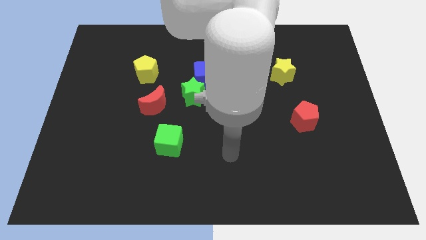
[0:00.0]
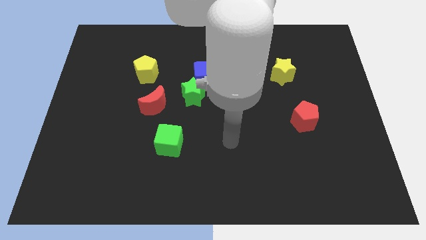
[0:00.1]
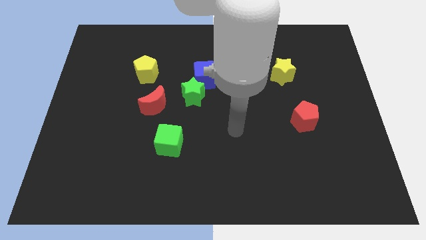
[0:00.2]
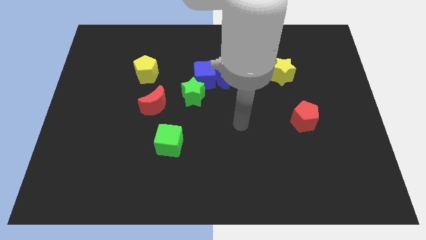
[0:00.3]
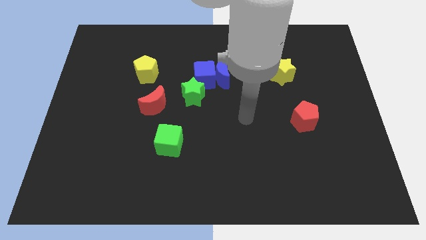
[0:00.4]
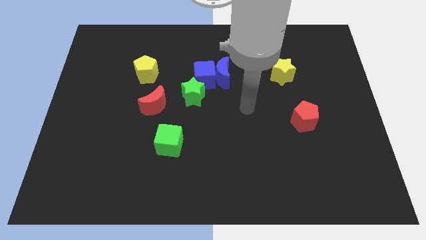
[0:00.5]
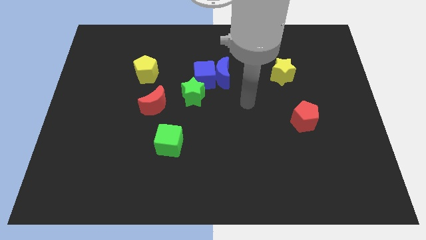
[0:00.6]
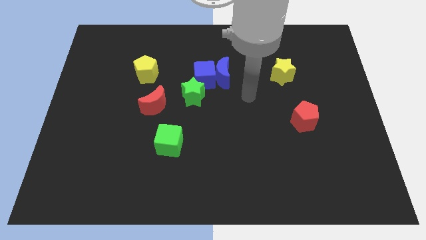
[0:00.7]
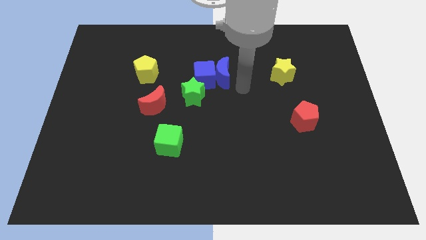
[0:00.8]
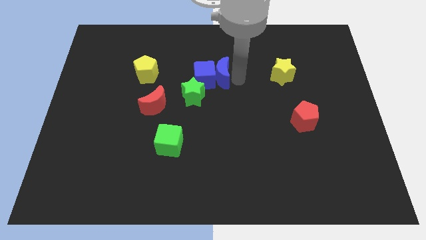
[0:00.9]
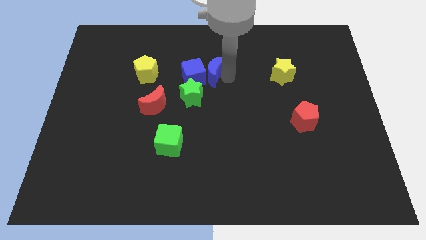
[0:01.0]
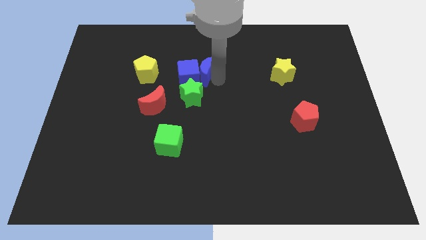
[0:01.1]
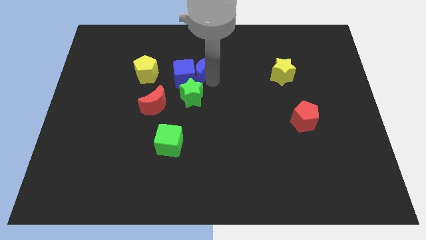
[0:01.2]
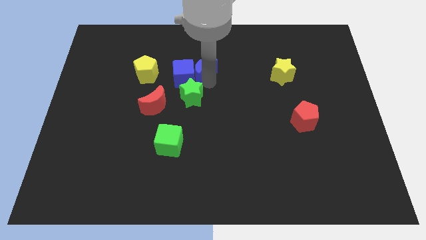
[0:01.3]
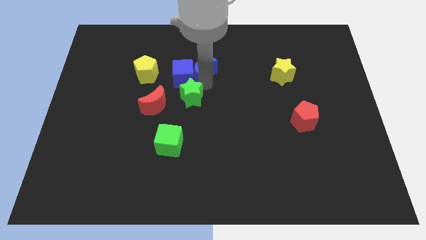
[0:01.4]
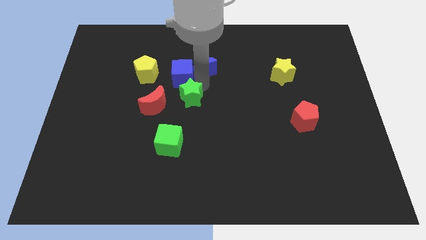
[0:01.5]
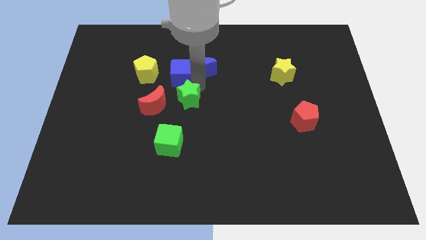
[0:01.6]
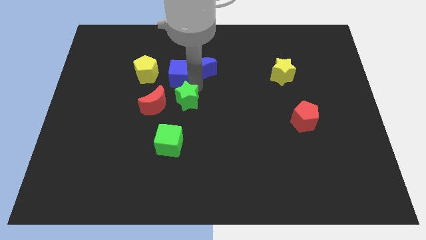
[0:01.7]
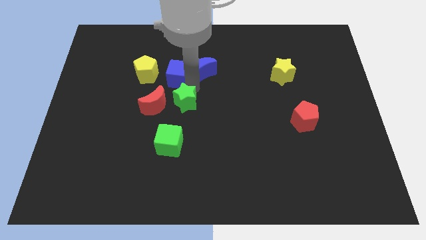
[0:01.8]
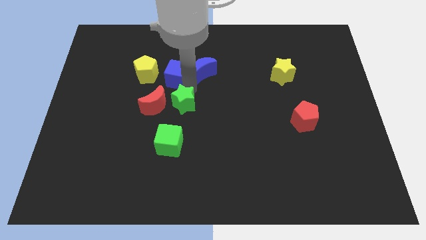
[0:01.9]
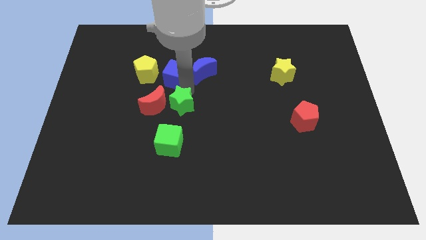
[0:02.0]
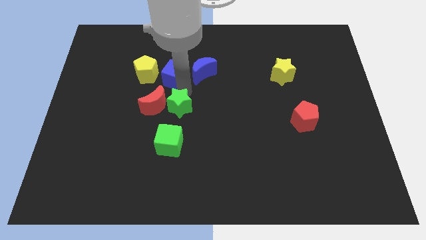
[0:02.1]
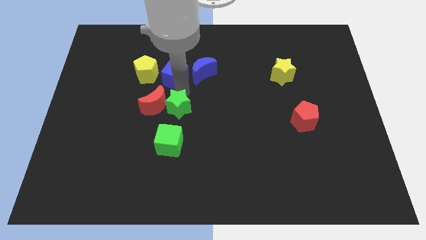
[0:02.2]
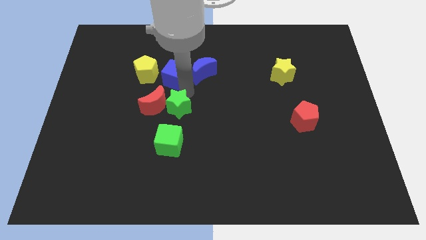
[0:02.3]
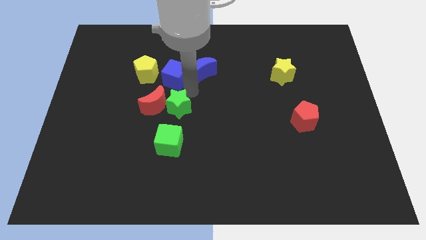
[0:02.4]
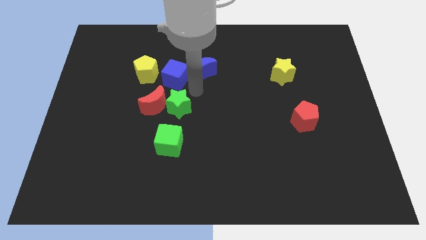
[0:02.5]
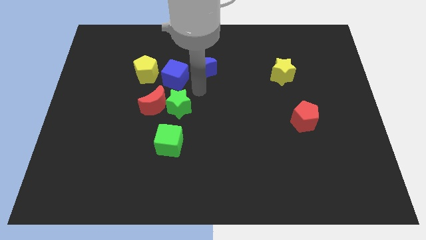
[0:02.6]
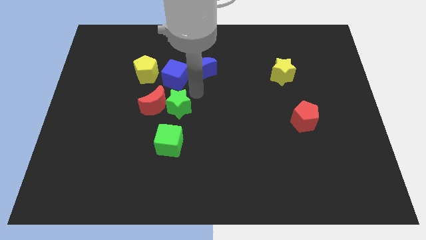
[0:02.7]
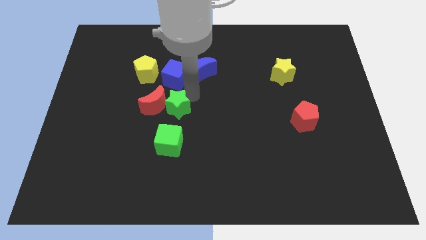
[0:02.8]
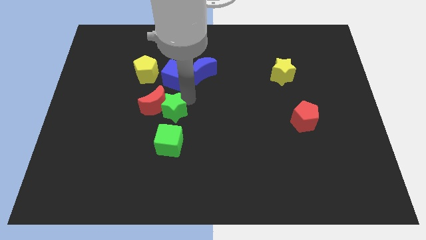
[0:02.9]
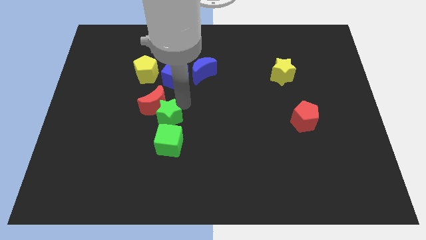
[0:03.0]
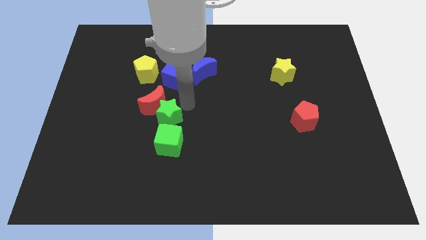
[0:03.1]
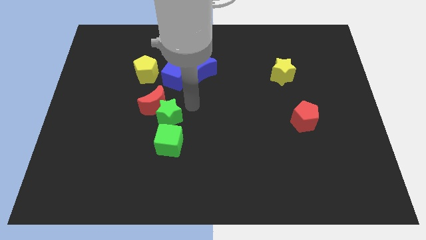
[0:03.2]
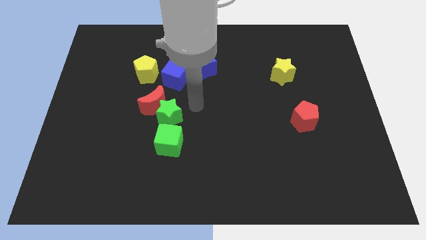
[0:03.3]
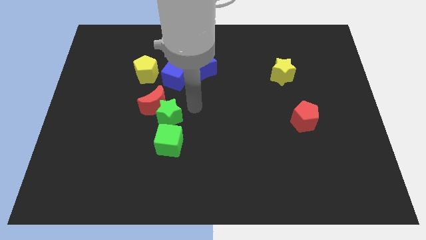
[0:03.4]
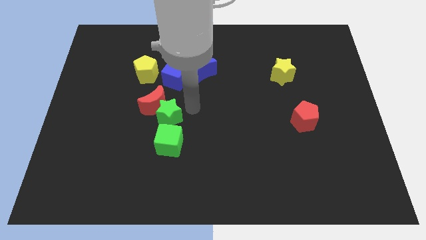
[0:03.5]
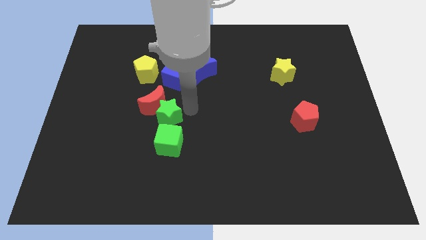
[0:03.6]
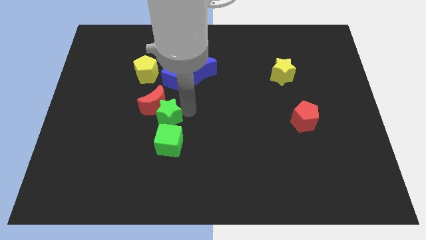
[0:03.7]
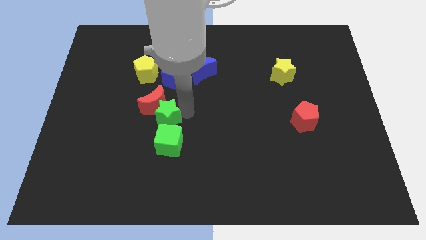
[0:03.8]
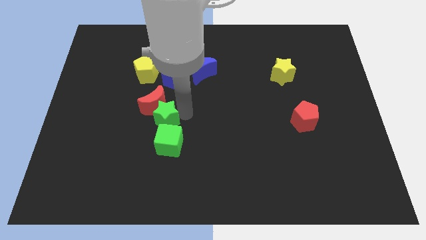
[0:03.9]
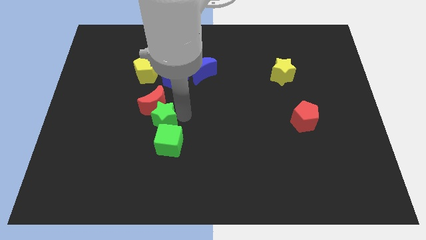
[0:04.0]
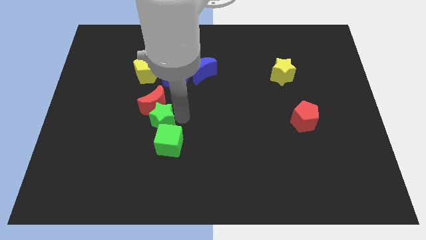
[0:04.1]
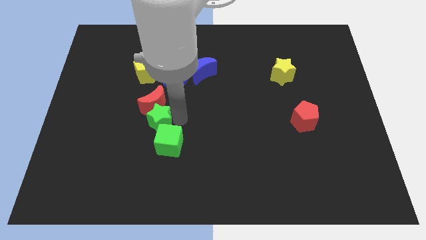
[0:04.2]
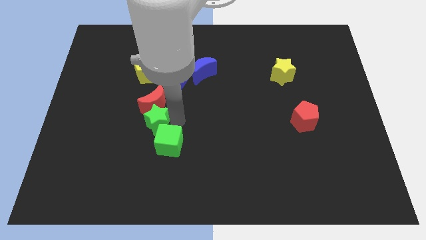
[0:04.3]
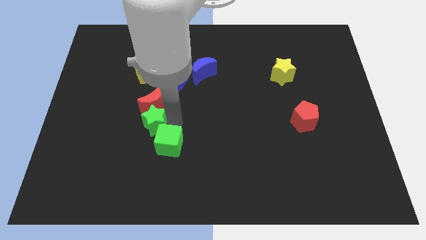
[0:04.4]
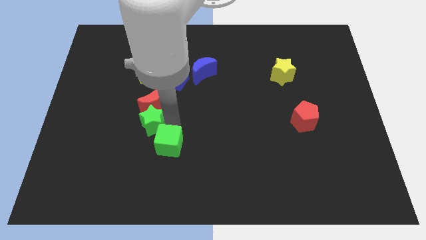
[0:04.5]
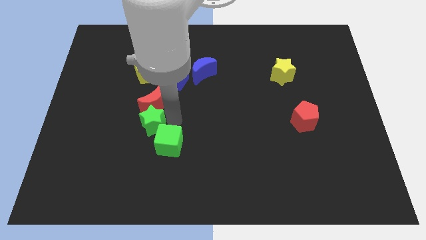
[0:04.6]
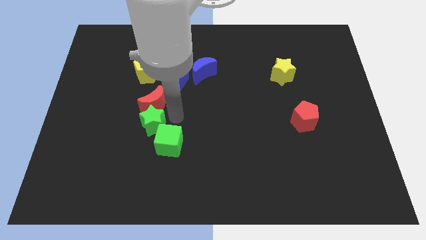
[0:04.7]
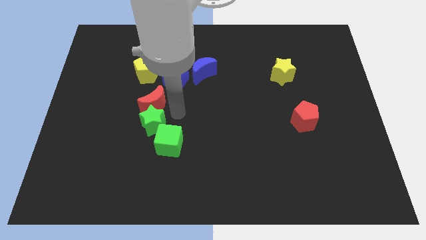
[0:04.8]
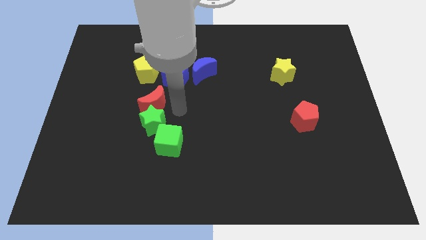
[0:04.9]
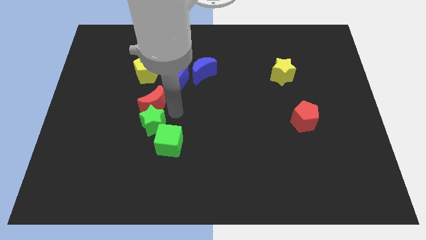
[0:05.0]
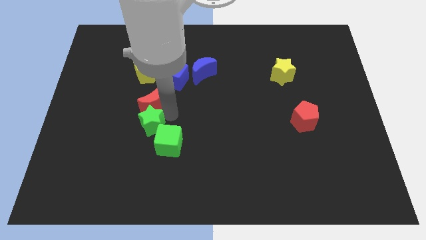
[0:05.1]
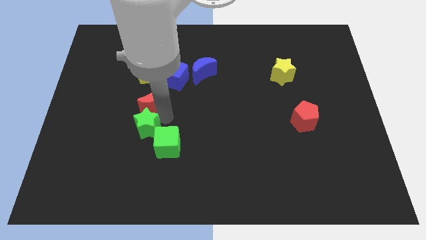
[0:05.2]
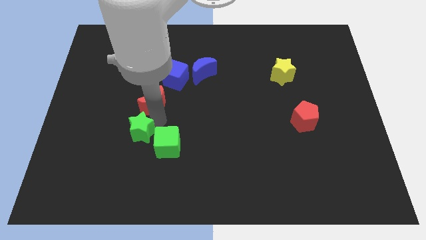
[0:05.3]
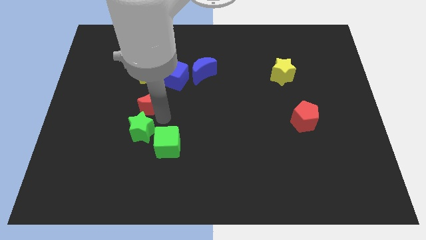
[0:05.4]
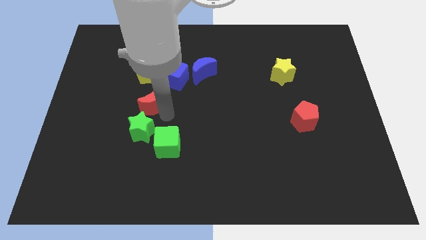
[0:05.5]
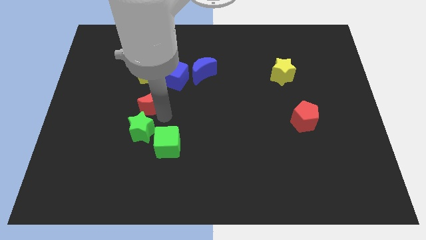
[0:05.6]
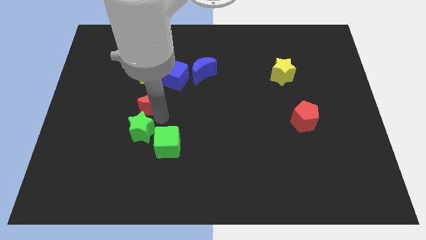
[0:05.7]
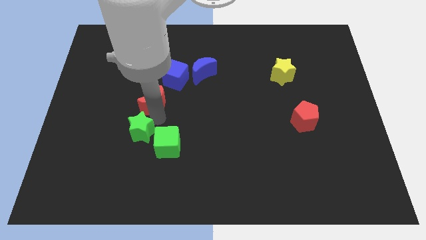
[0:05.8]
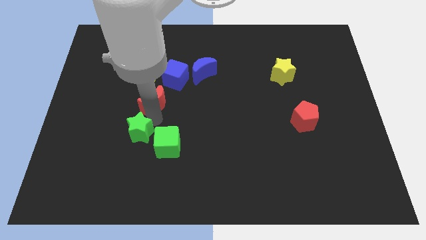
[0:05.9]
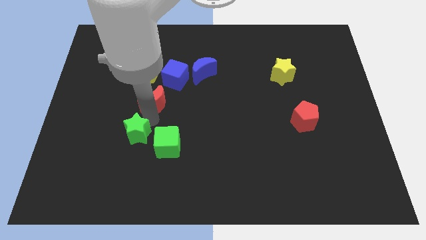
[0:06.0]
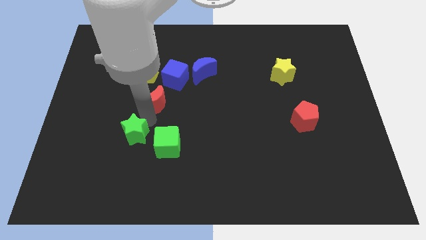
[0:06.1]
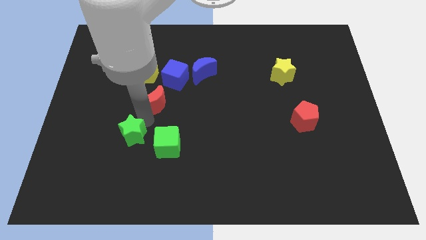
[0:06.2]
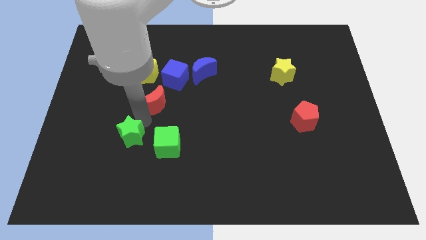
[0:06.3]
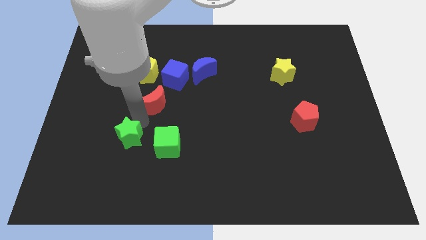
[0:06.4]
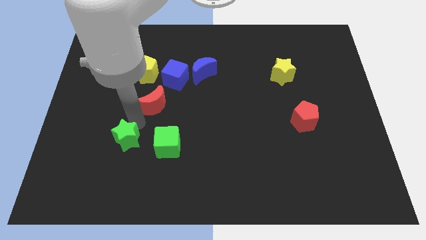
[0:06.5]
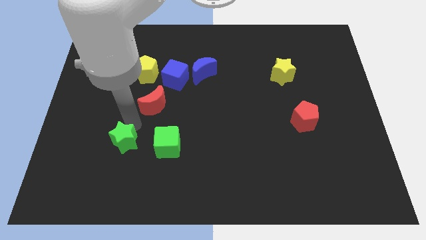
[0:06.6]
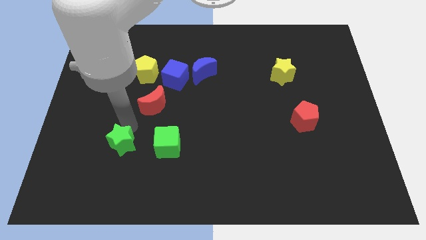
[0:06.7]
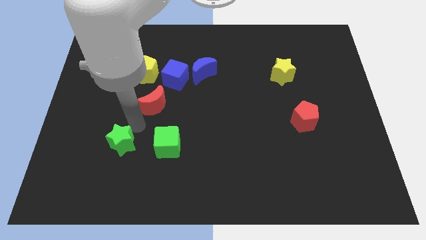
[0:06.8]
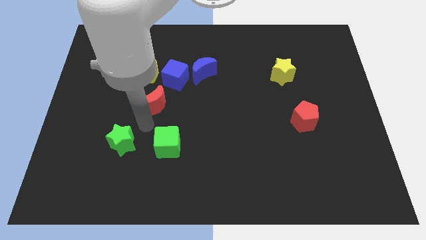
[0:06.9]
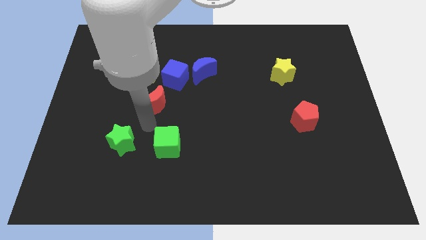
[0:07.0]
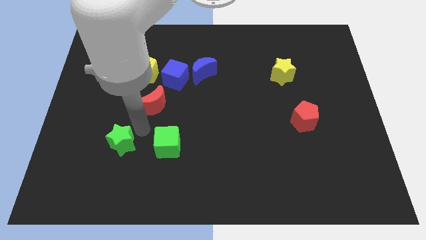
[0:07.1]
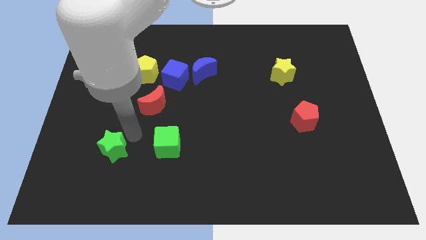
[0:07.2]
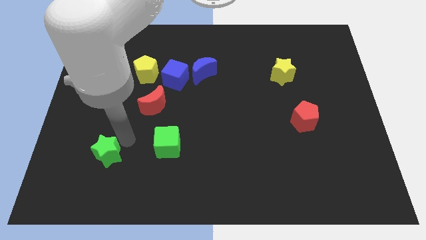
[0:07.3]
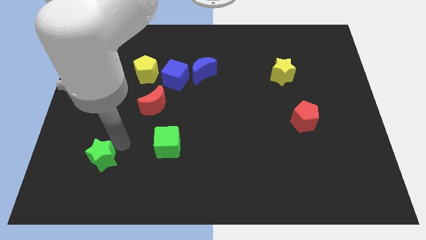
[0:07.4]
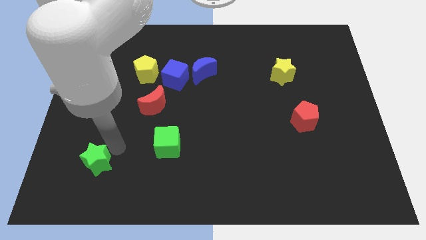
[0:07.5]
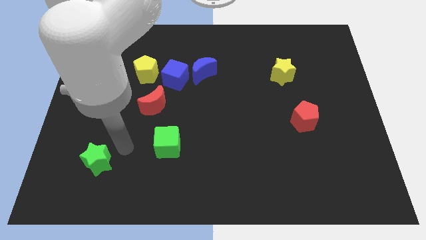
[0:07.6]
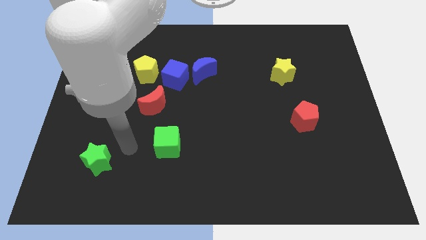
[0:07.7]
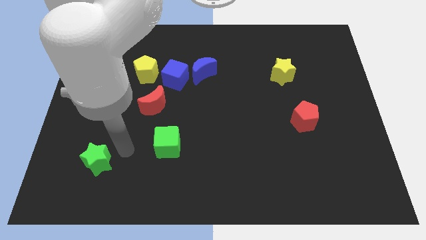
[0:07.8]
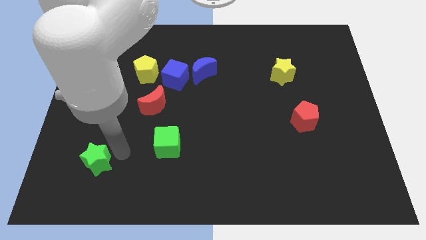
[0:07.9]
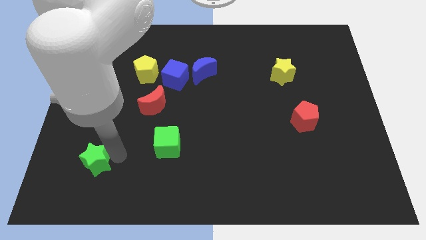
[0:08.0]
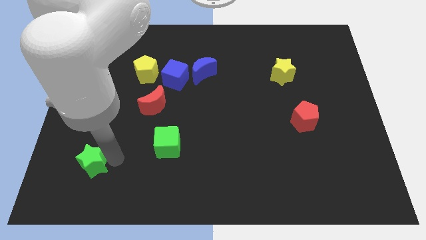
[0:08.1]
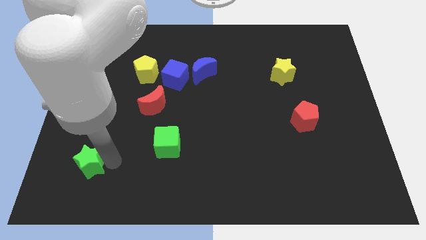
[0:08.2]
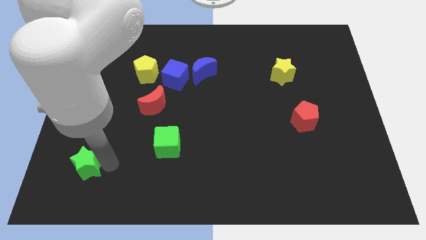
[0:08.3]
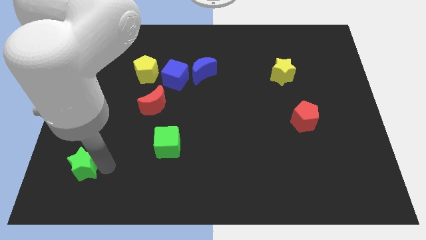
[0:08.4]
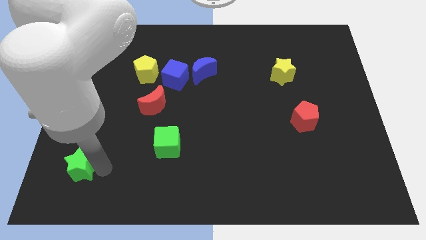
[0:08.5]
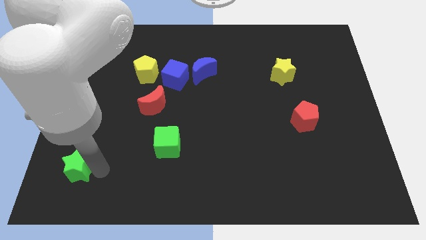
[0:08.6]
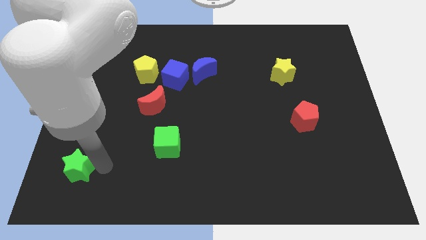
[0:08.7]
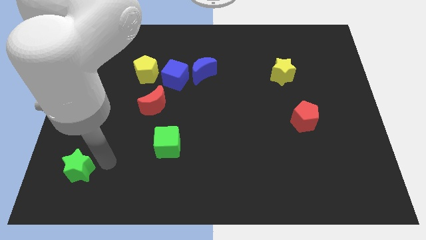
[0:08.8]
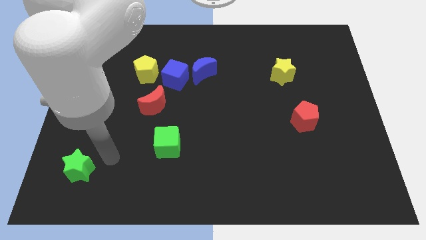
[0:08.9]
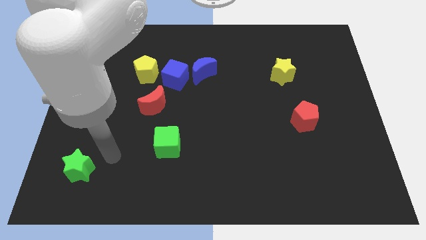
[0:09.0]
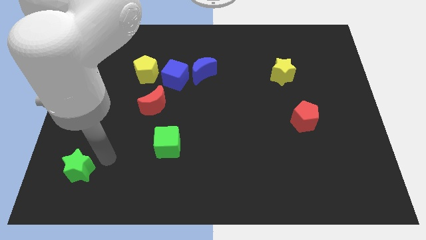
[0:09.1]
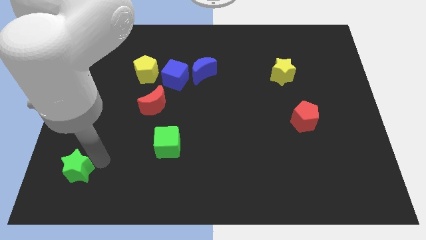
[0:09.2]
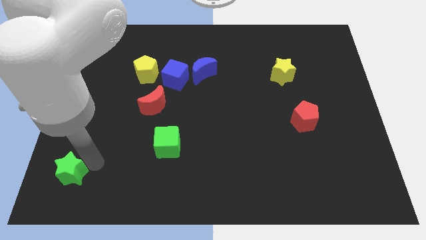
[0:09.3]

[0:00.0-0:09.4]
push the green star to the bottom left of the board
